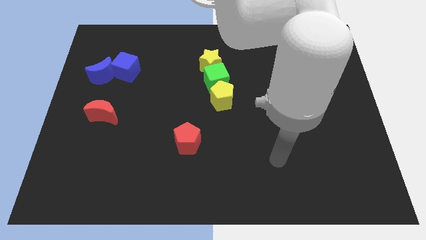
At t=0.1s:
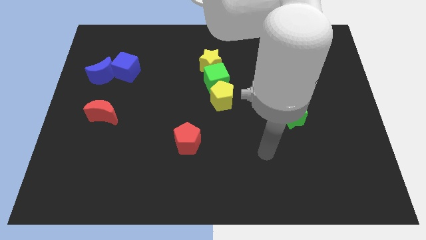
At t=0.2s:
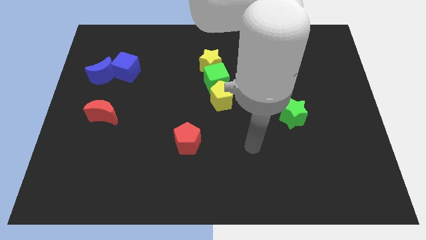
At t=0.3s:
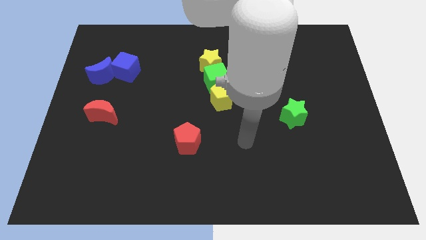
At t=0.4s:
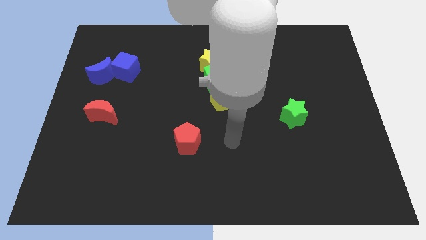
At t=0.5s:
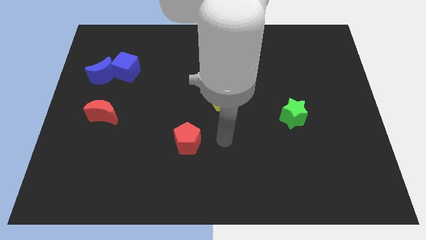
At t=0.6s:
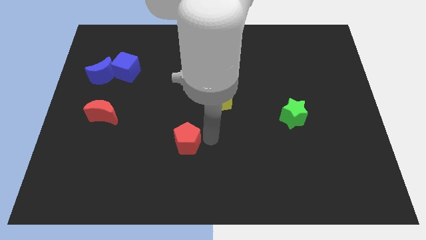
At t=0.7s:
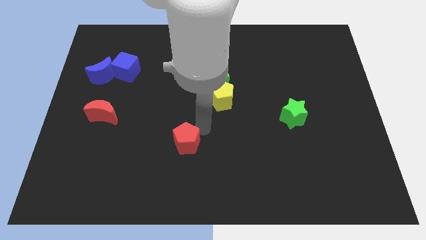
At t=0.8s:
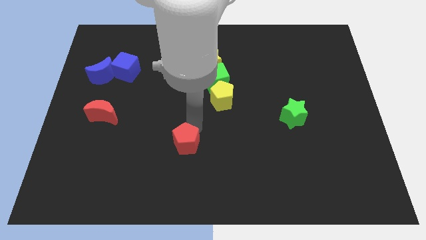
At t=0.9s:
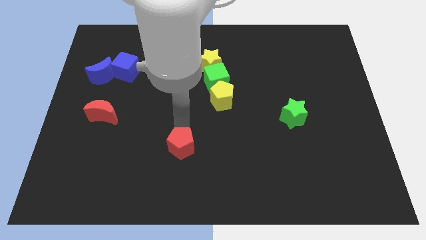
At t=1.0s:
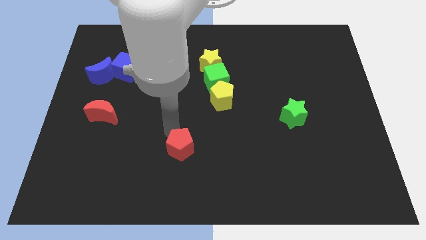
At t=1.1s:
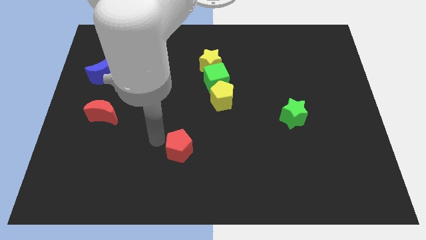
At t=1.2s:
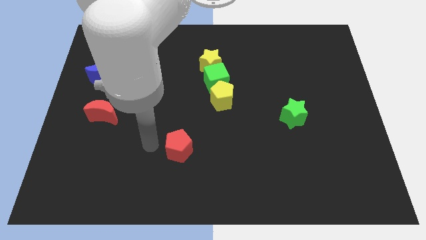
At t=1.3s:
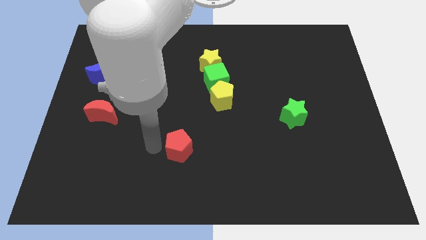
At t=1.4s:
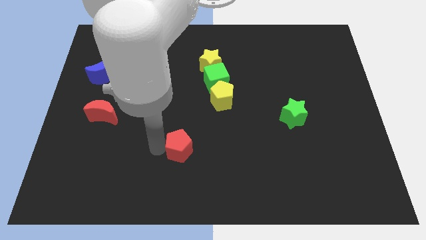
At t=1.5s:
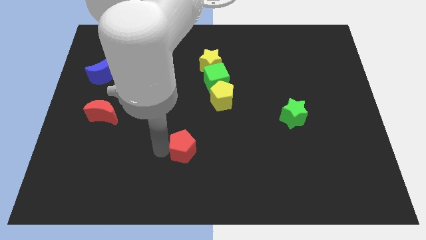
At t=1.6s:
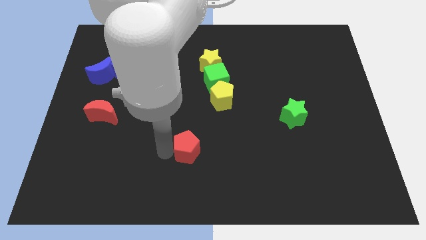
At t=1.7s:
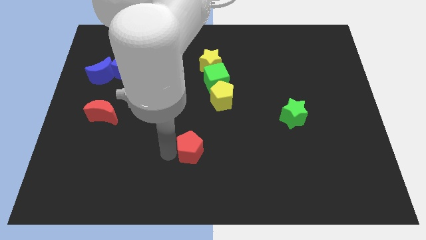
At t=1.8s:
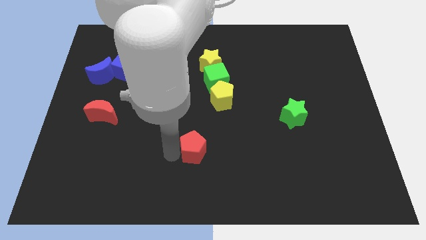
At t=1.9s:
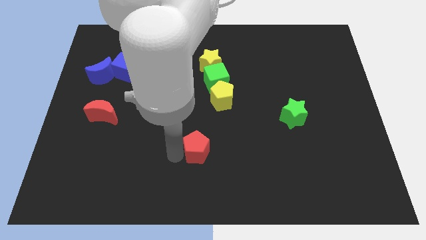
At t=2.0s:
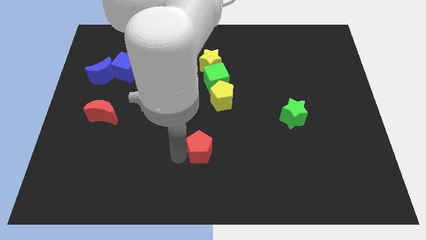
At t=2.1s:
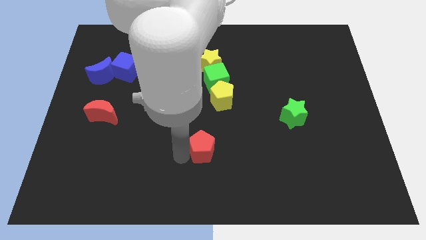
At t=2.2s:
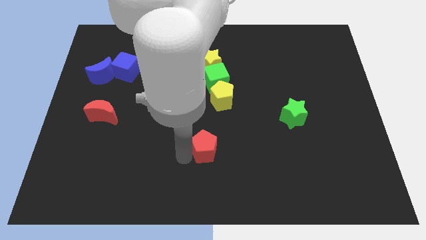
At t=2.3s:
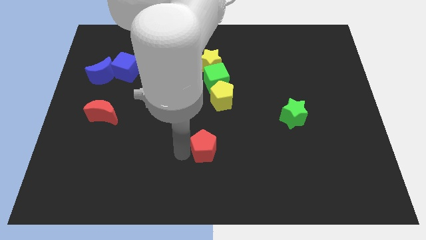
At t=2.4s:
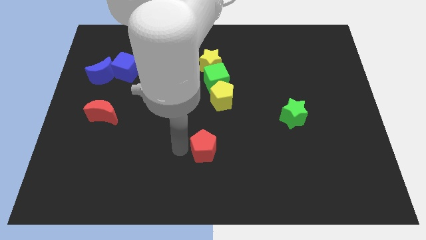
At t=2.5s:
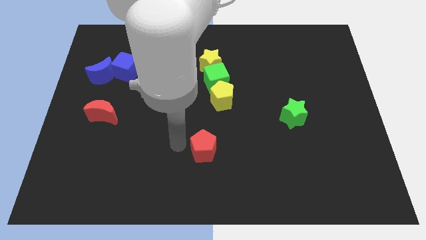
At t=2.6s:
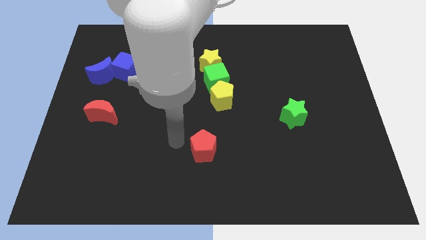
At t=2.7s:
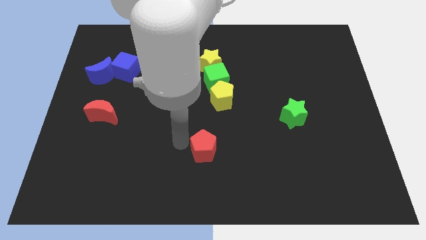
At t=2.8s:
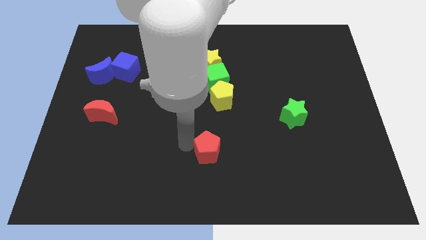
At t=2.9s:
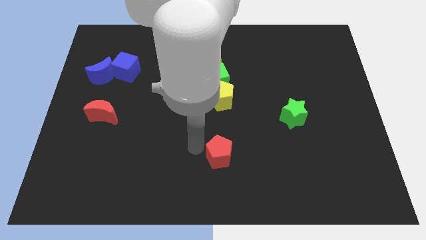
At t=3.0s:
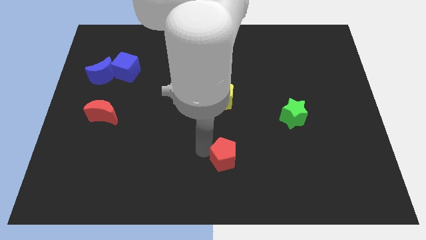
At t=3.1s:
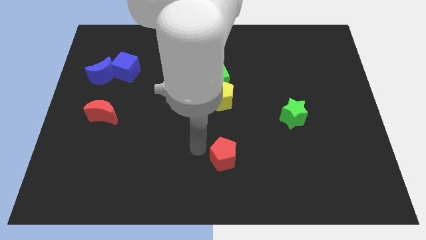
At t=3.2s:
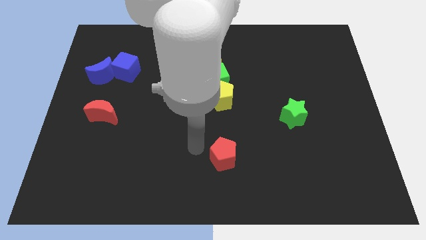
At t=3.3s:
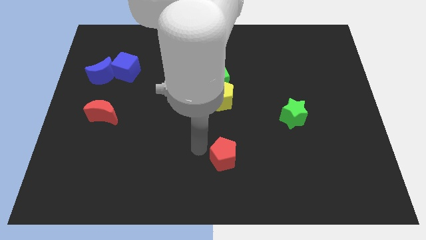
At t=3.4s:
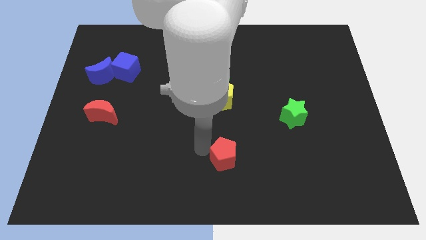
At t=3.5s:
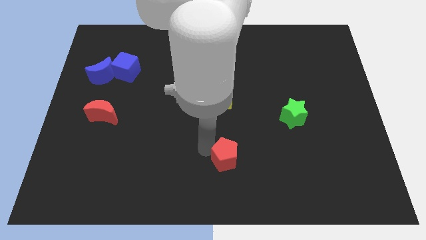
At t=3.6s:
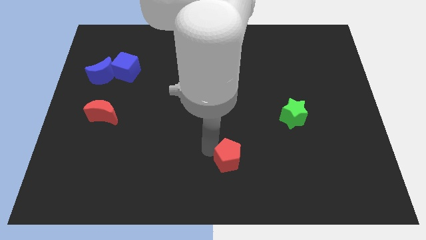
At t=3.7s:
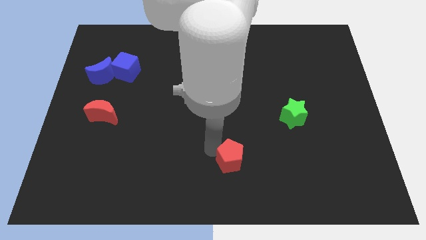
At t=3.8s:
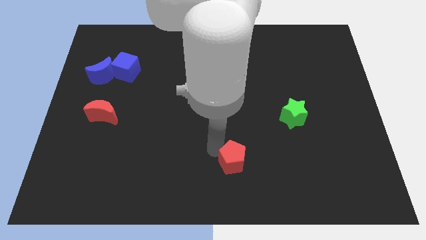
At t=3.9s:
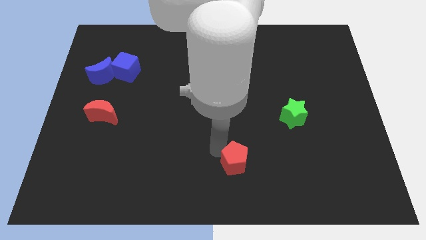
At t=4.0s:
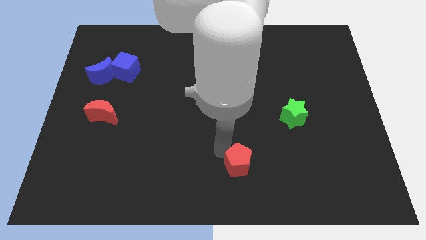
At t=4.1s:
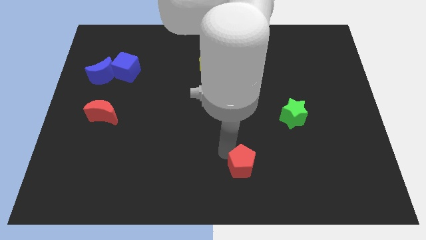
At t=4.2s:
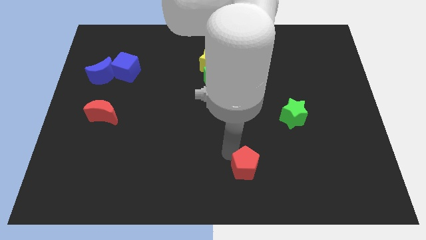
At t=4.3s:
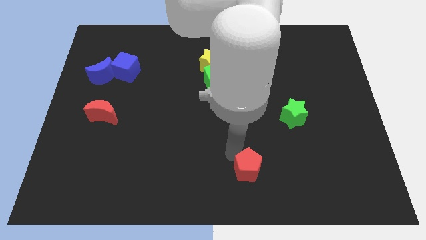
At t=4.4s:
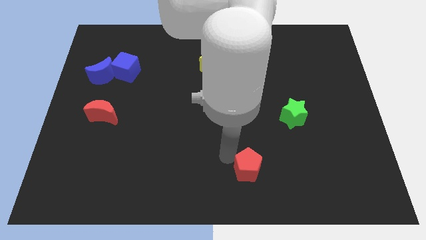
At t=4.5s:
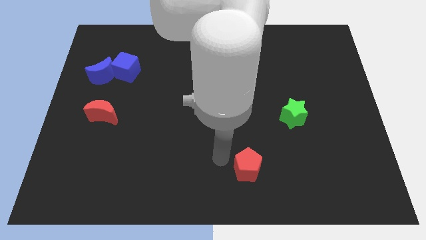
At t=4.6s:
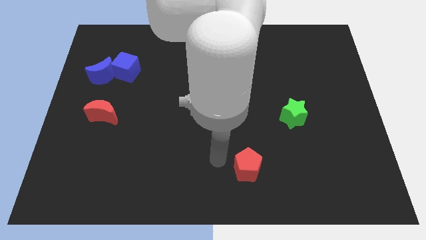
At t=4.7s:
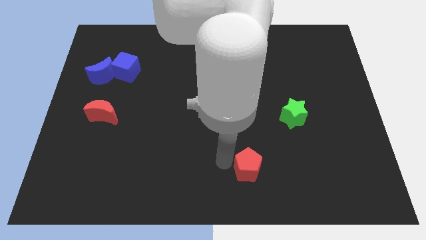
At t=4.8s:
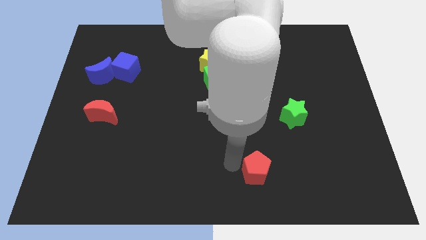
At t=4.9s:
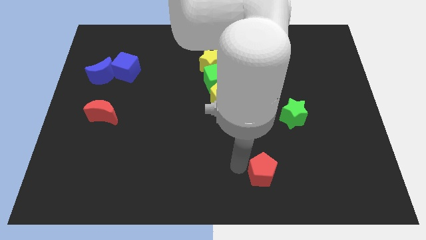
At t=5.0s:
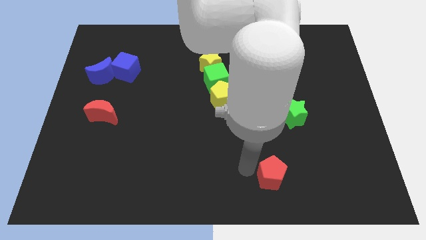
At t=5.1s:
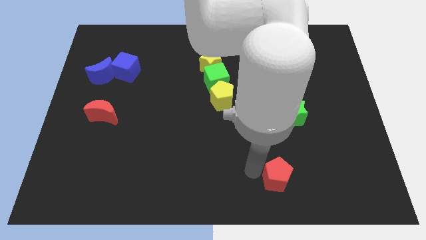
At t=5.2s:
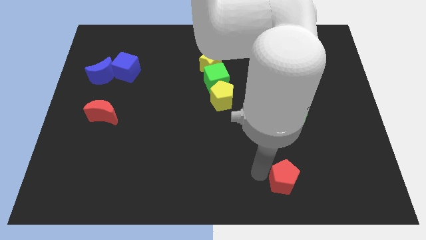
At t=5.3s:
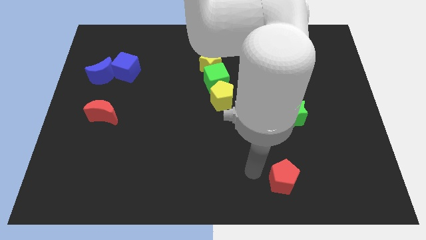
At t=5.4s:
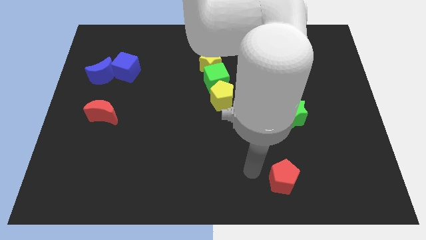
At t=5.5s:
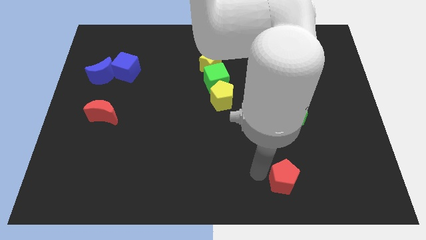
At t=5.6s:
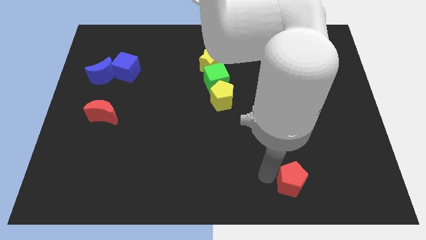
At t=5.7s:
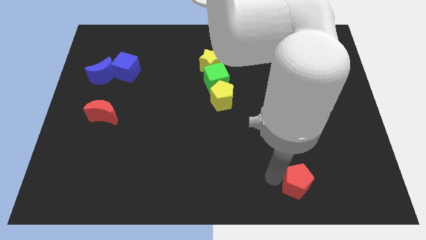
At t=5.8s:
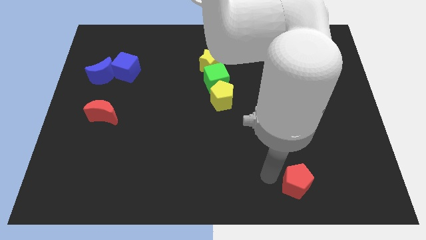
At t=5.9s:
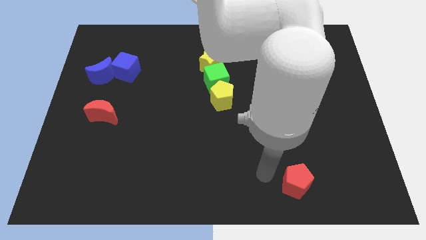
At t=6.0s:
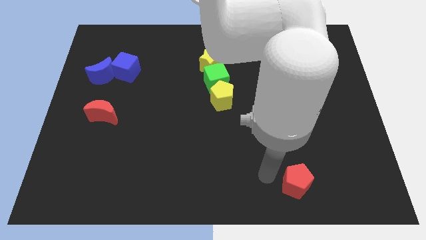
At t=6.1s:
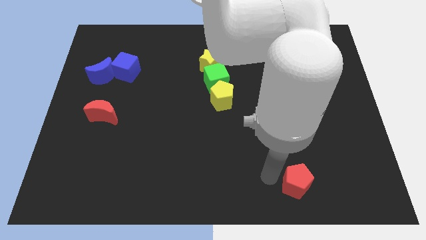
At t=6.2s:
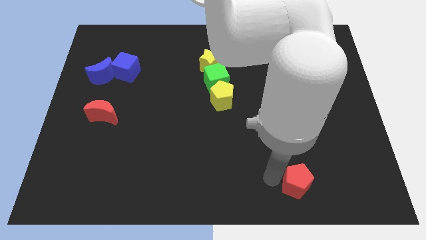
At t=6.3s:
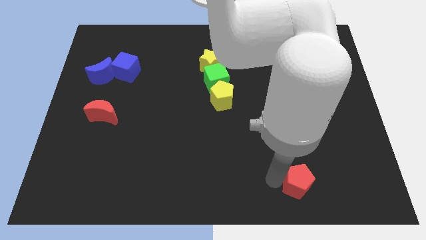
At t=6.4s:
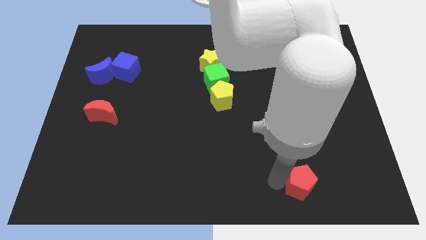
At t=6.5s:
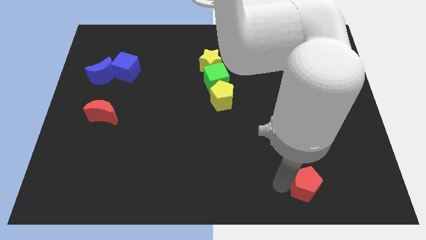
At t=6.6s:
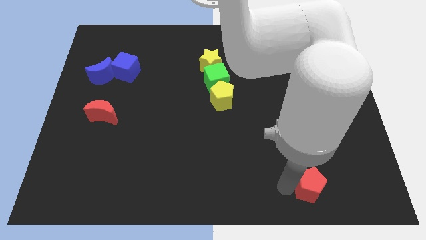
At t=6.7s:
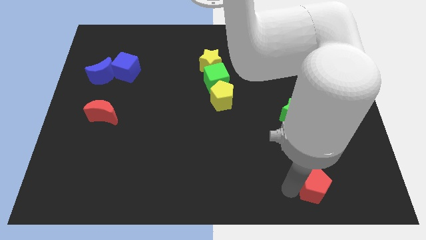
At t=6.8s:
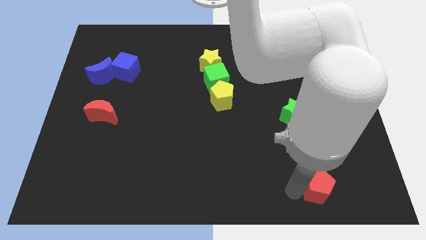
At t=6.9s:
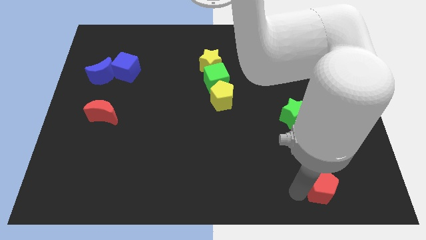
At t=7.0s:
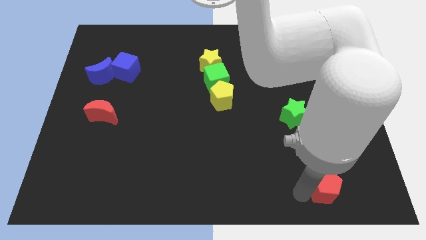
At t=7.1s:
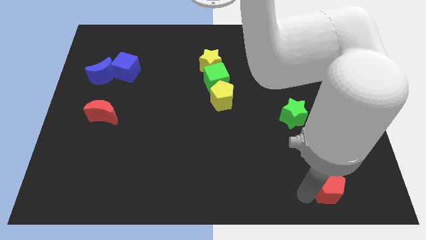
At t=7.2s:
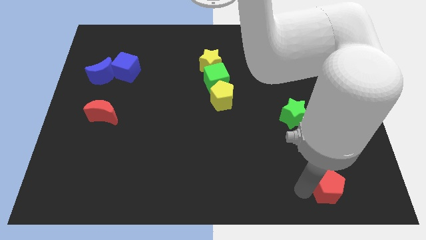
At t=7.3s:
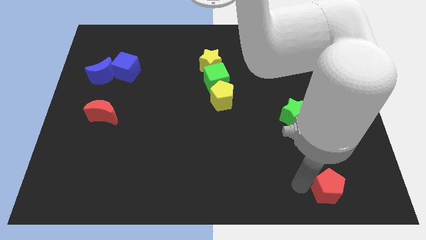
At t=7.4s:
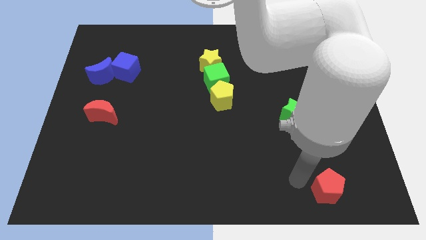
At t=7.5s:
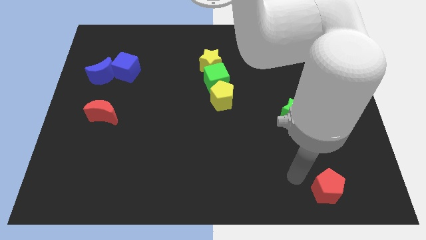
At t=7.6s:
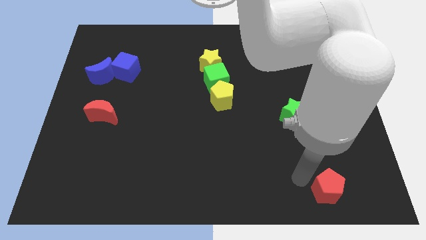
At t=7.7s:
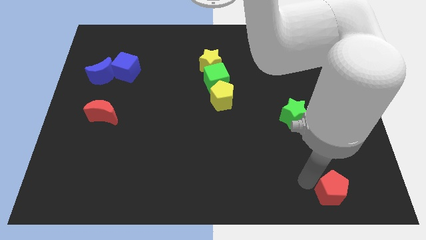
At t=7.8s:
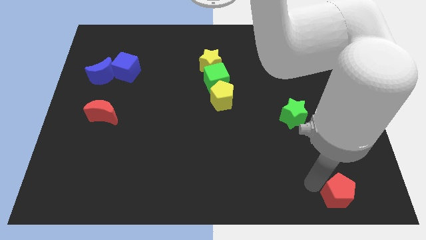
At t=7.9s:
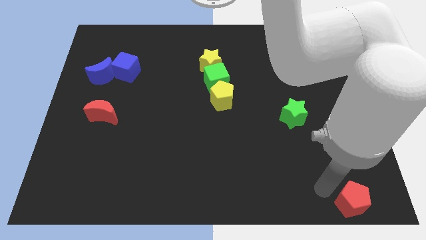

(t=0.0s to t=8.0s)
put the red pentagon to the bottom right of the board
